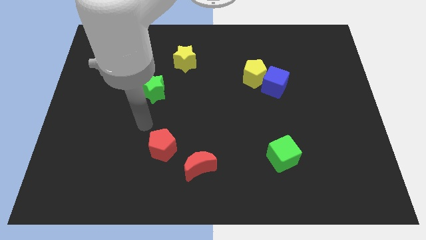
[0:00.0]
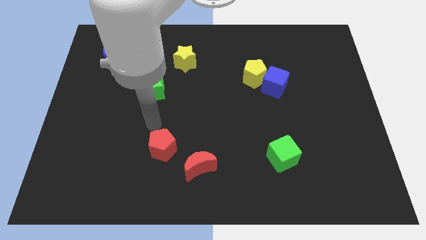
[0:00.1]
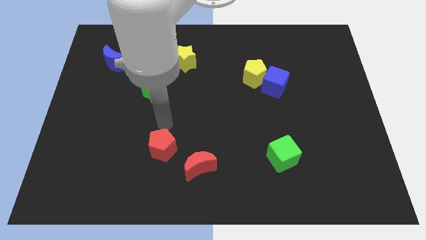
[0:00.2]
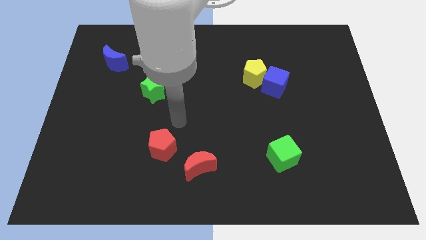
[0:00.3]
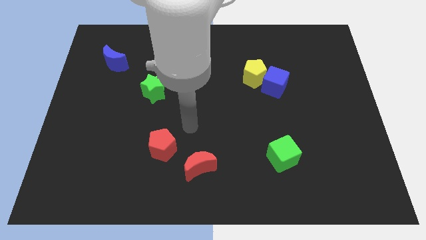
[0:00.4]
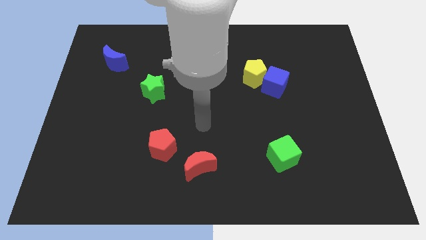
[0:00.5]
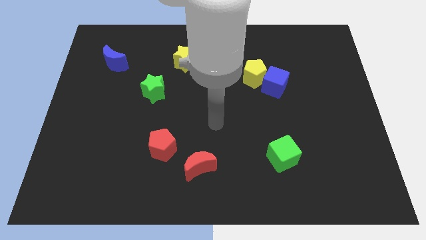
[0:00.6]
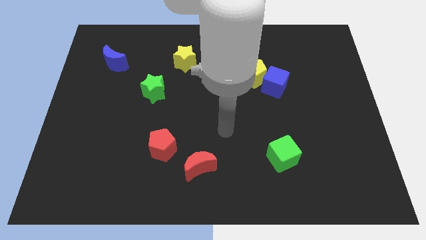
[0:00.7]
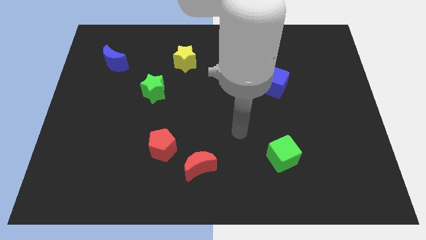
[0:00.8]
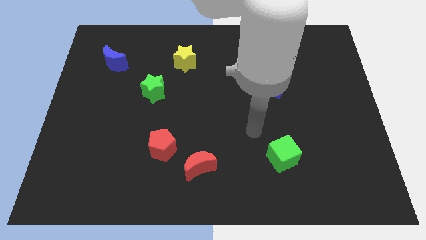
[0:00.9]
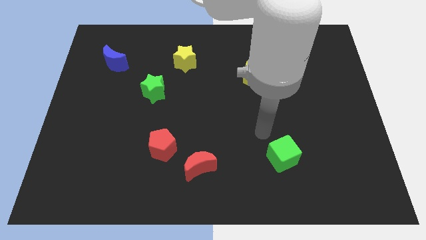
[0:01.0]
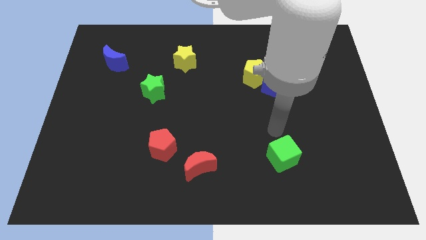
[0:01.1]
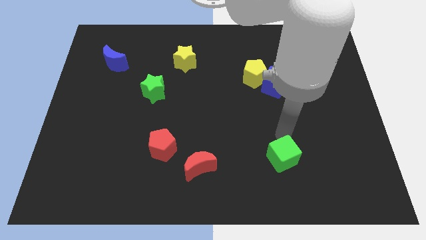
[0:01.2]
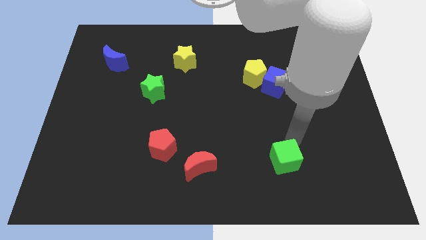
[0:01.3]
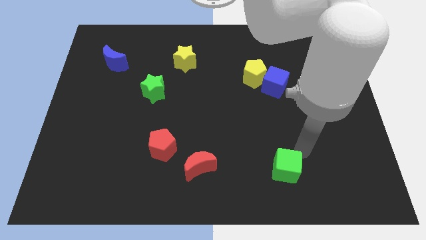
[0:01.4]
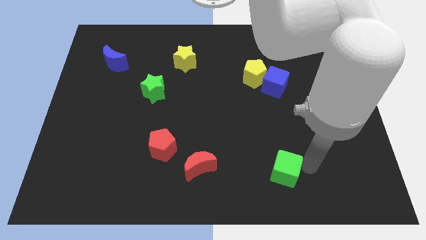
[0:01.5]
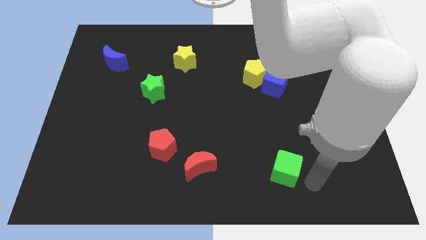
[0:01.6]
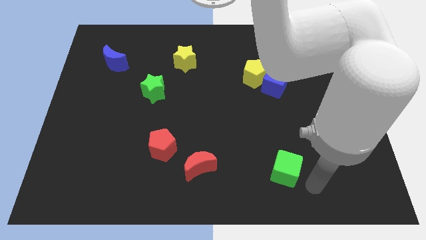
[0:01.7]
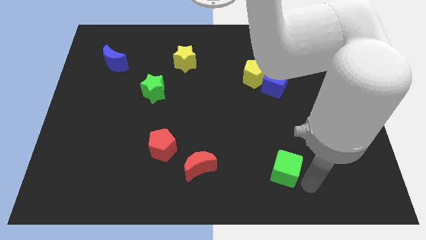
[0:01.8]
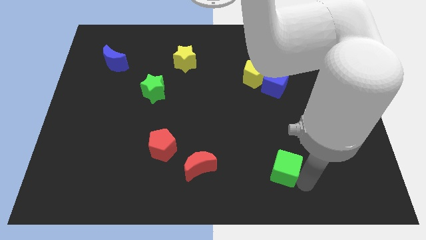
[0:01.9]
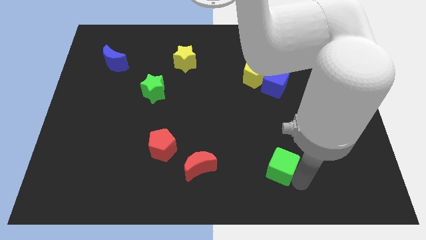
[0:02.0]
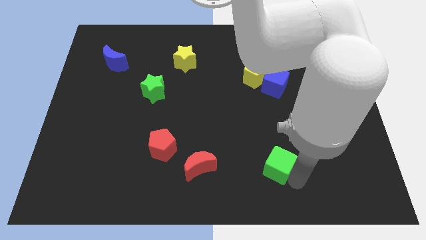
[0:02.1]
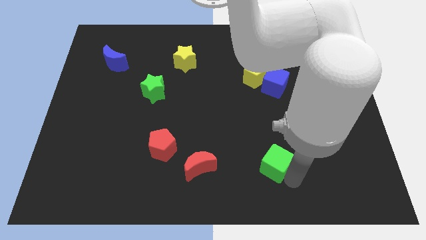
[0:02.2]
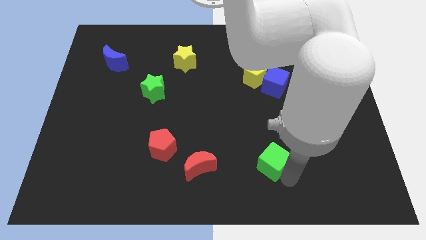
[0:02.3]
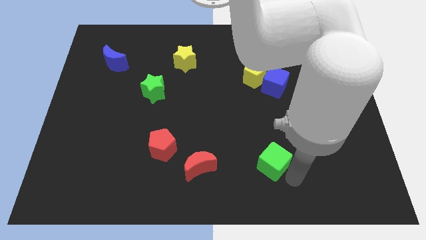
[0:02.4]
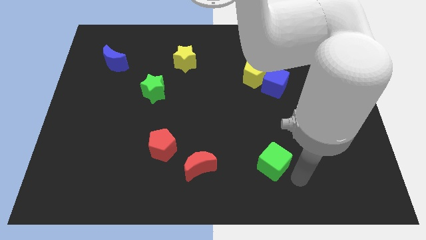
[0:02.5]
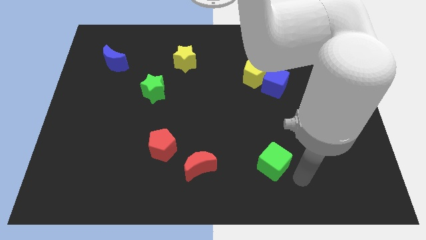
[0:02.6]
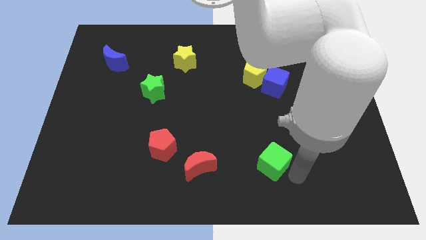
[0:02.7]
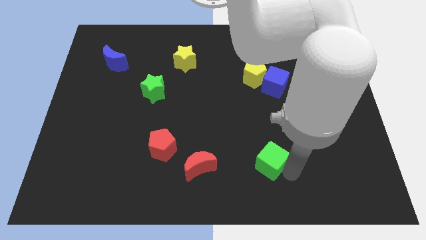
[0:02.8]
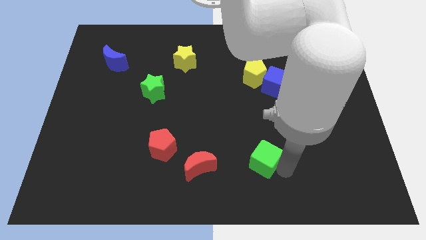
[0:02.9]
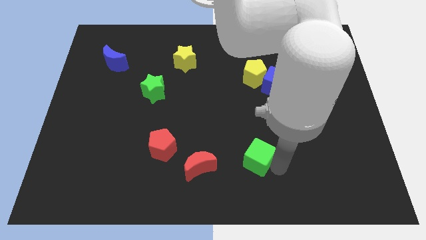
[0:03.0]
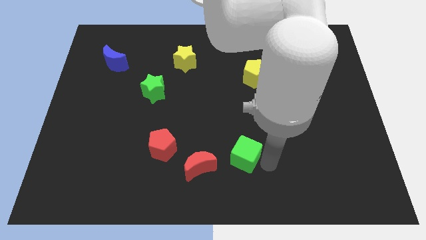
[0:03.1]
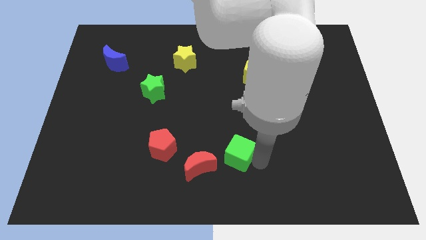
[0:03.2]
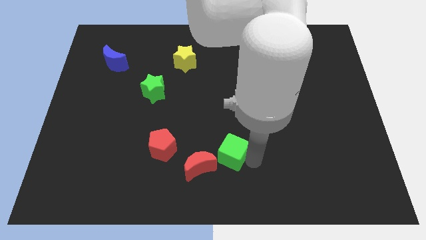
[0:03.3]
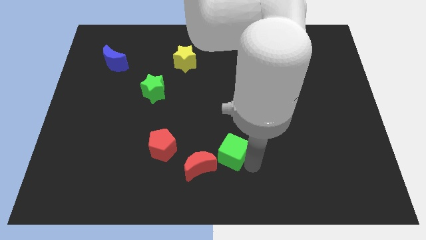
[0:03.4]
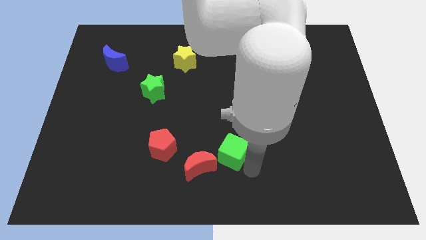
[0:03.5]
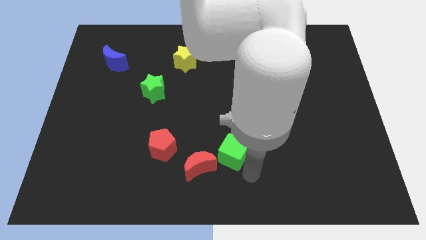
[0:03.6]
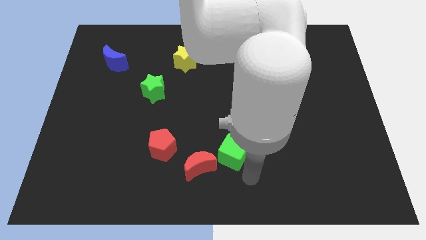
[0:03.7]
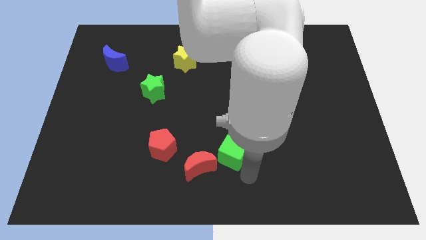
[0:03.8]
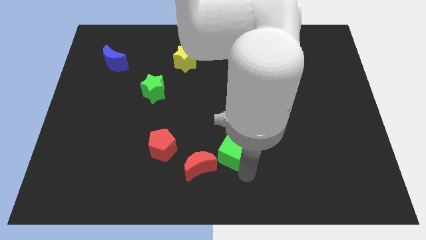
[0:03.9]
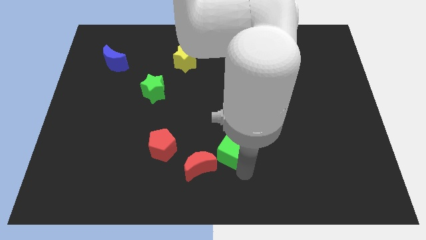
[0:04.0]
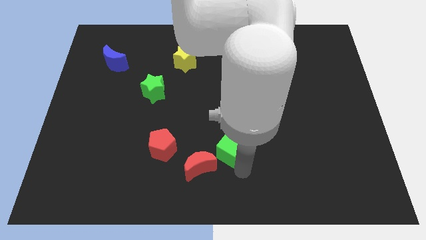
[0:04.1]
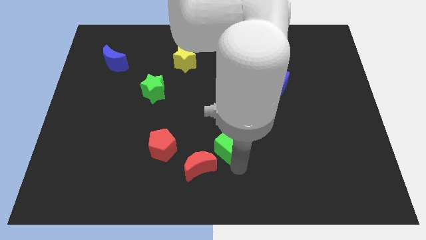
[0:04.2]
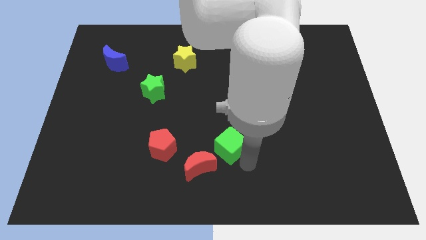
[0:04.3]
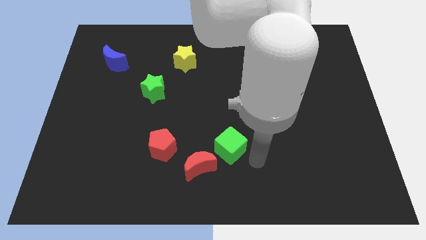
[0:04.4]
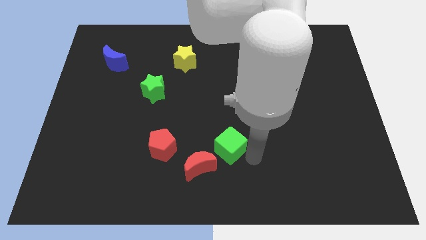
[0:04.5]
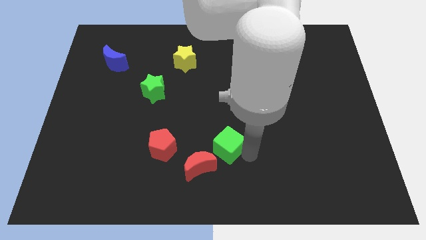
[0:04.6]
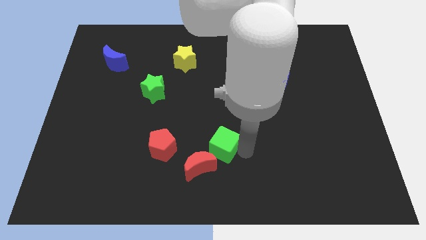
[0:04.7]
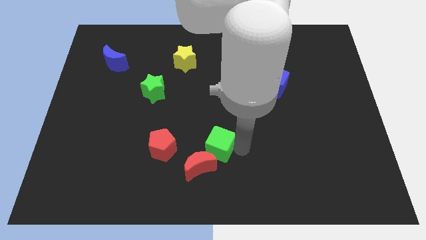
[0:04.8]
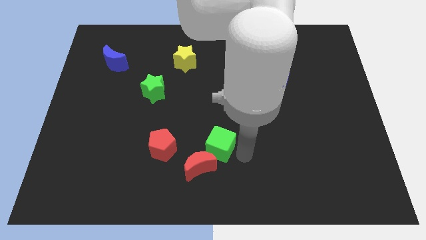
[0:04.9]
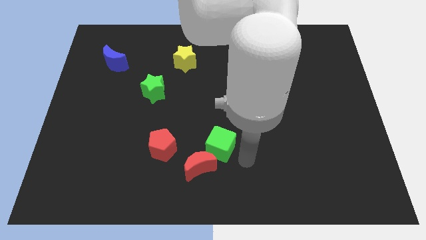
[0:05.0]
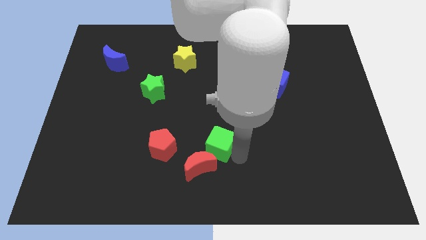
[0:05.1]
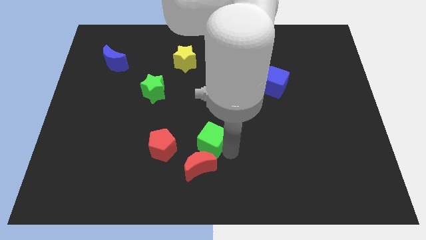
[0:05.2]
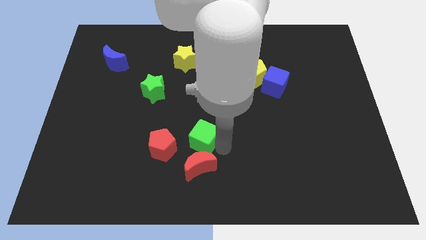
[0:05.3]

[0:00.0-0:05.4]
push the green cube to the top right side of the red pentagon

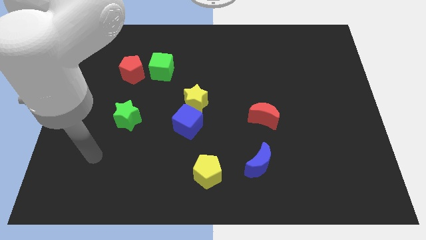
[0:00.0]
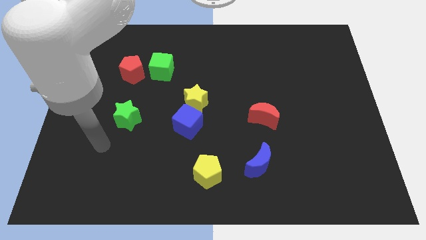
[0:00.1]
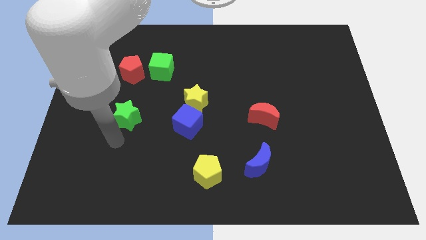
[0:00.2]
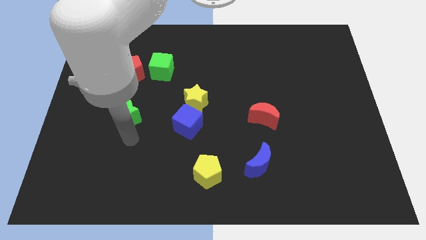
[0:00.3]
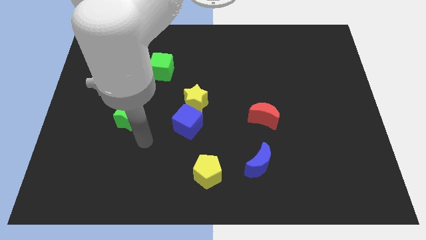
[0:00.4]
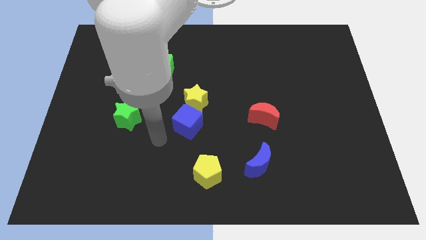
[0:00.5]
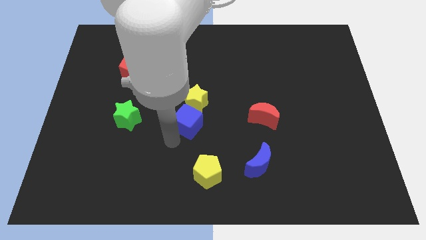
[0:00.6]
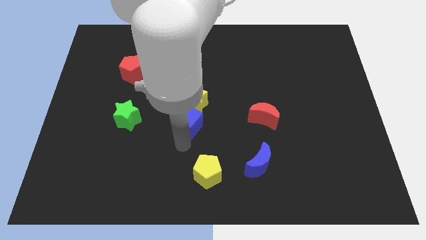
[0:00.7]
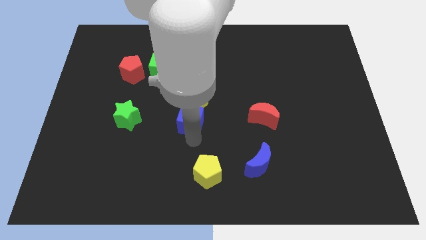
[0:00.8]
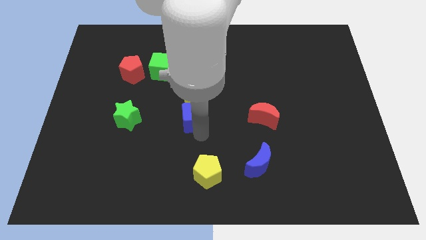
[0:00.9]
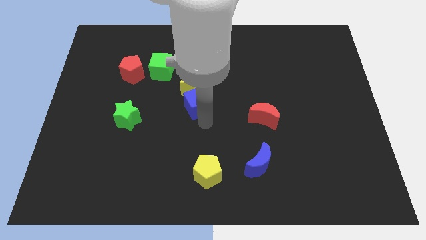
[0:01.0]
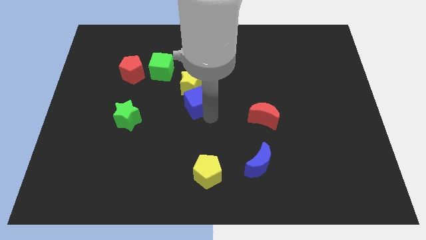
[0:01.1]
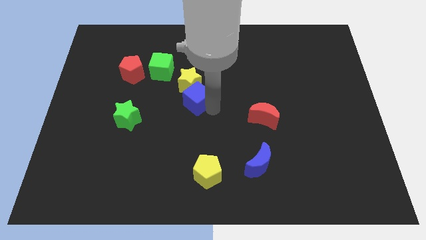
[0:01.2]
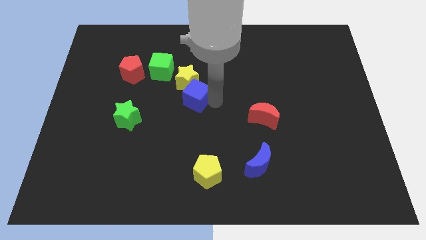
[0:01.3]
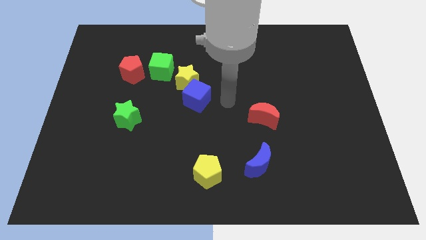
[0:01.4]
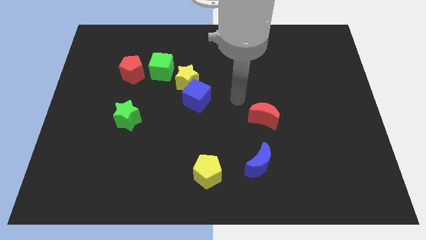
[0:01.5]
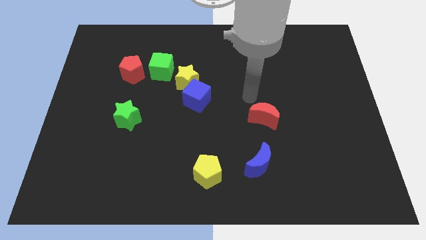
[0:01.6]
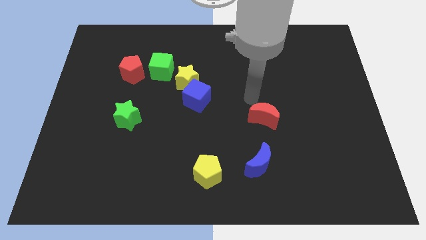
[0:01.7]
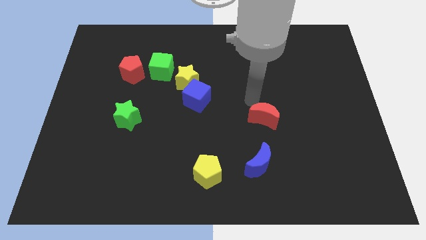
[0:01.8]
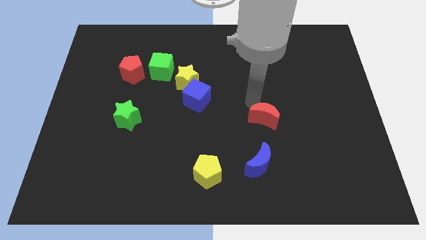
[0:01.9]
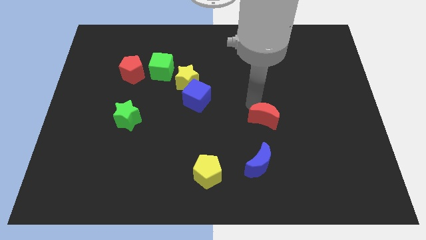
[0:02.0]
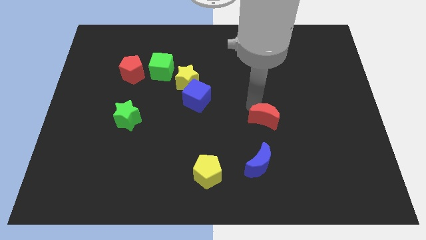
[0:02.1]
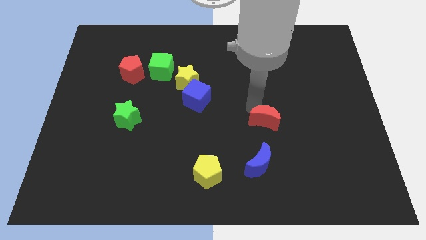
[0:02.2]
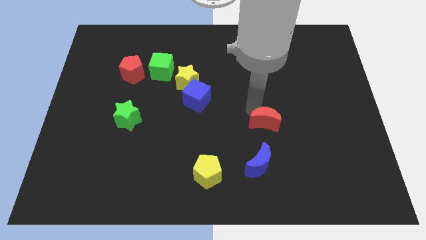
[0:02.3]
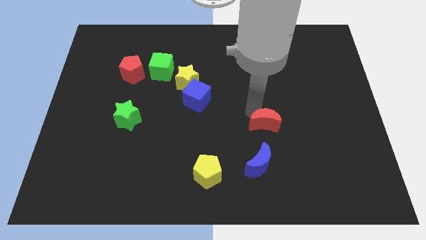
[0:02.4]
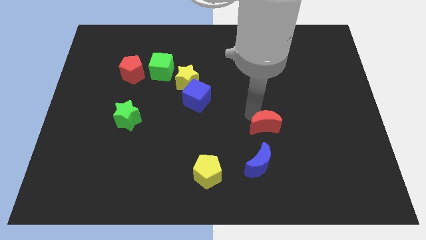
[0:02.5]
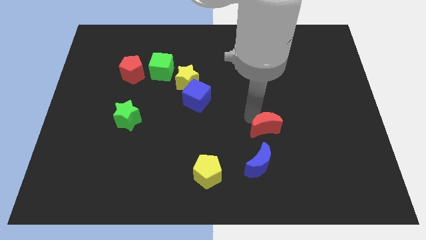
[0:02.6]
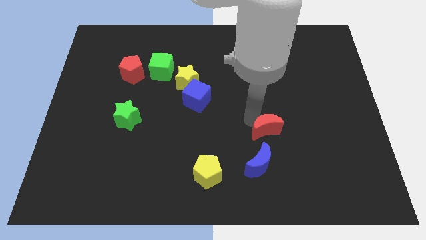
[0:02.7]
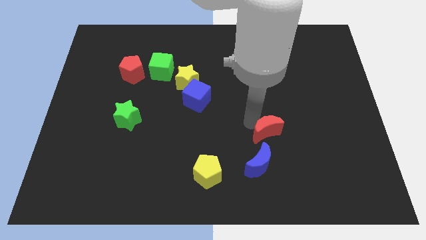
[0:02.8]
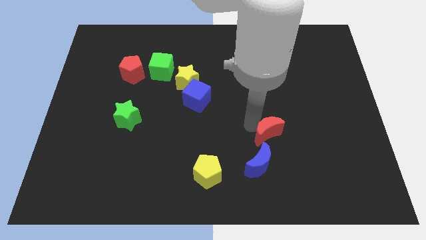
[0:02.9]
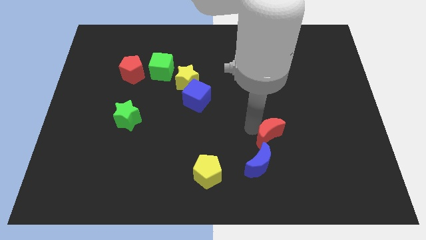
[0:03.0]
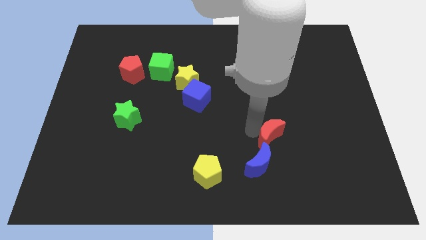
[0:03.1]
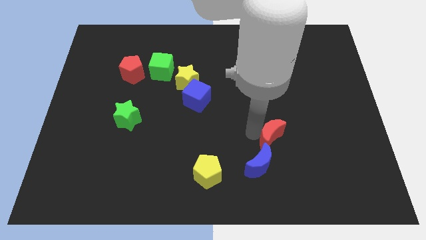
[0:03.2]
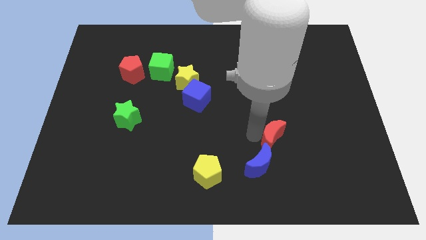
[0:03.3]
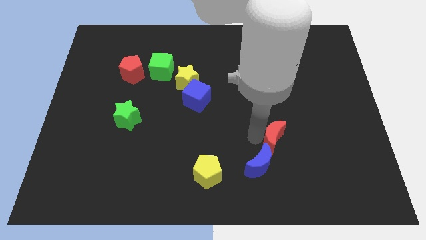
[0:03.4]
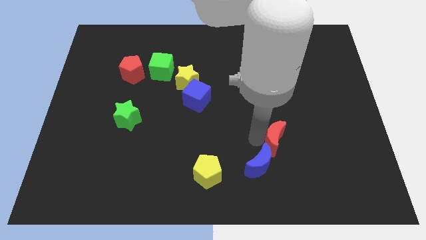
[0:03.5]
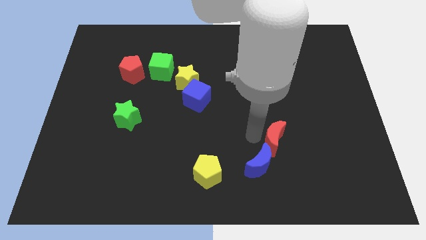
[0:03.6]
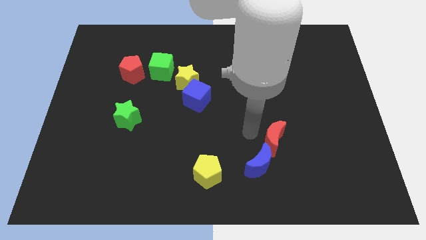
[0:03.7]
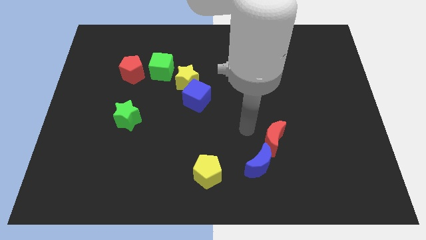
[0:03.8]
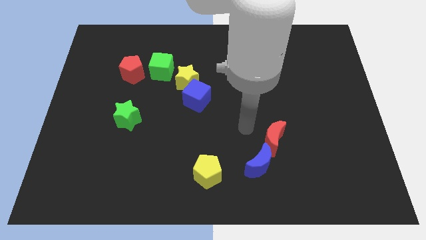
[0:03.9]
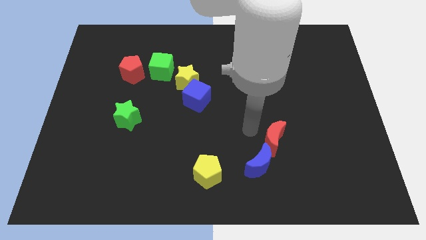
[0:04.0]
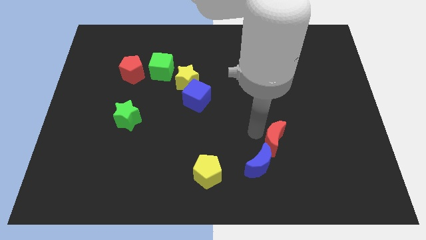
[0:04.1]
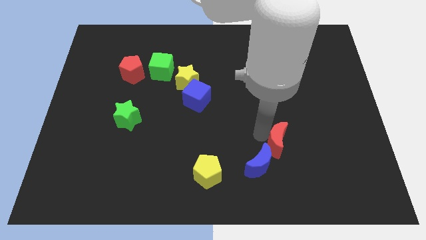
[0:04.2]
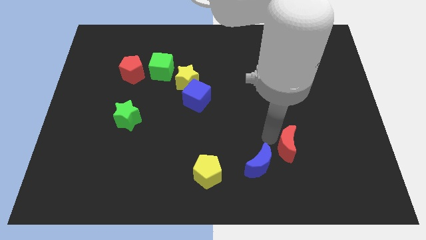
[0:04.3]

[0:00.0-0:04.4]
move the red moon right of the blue moon
